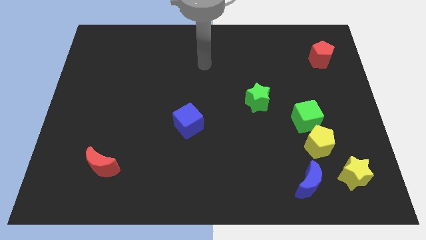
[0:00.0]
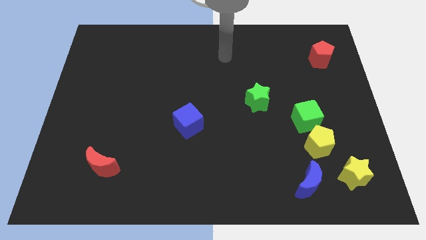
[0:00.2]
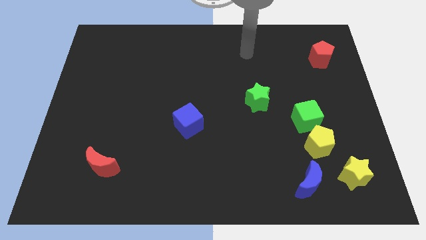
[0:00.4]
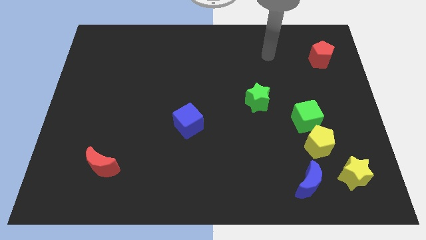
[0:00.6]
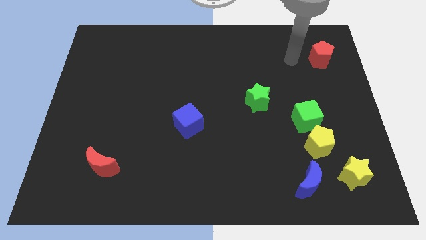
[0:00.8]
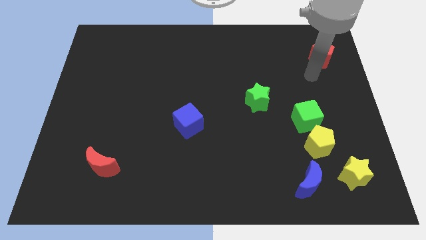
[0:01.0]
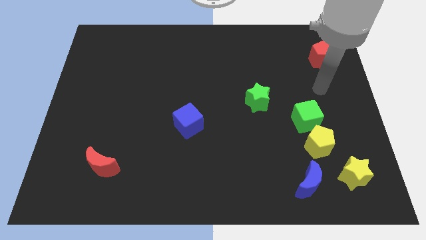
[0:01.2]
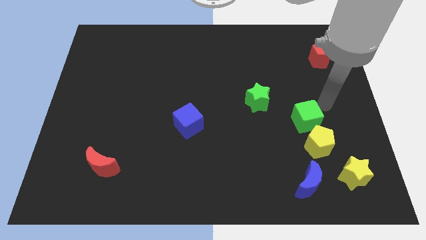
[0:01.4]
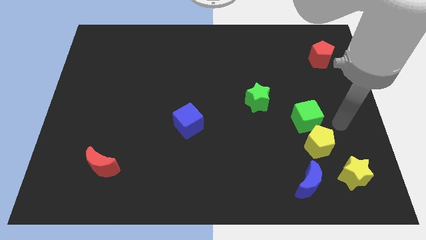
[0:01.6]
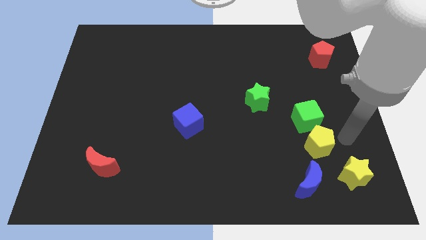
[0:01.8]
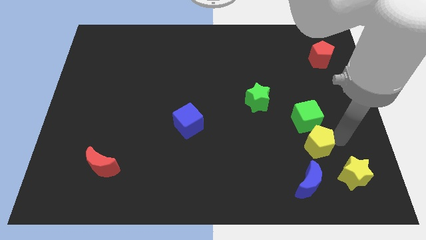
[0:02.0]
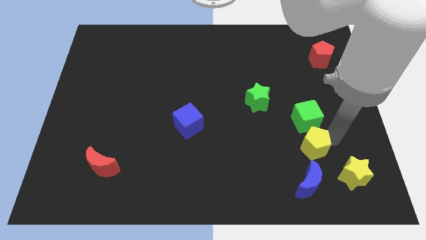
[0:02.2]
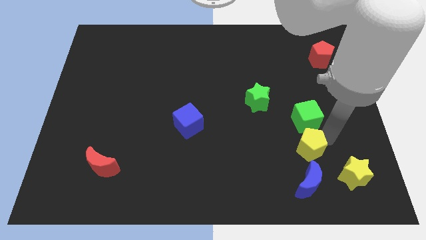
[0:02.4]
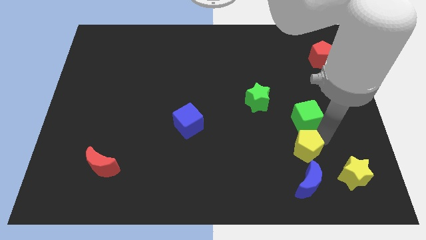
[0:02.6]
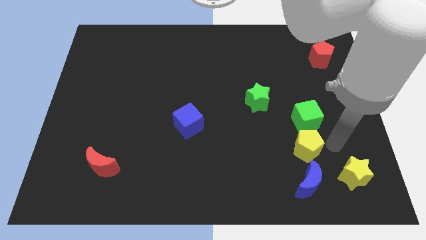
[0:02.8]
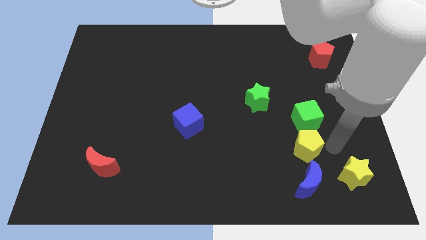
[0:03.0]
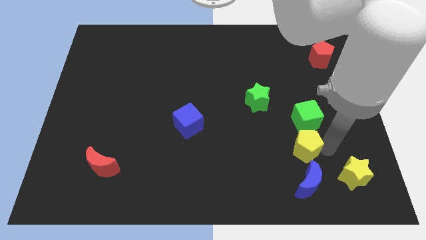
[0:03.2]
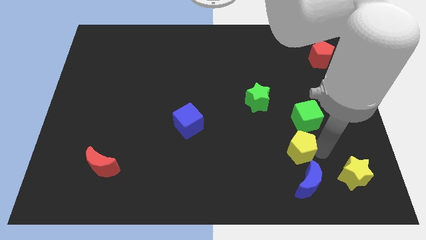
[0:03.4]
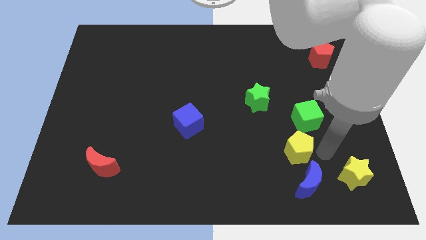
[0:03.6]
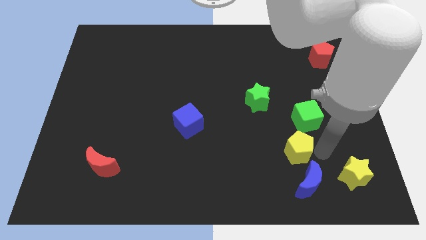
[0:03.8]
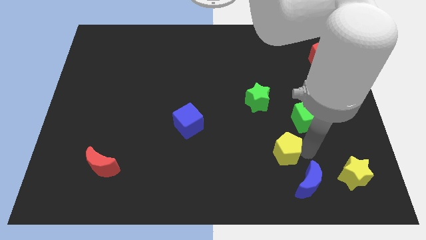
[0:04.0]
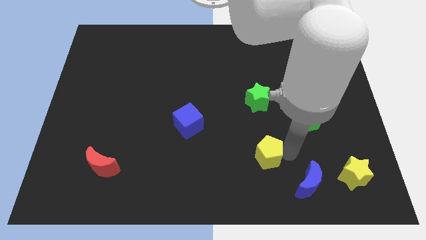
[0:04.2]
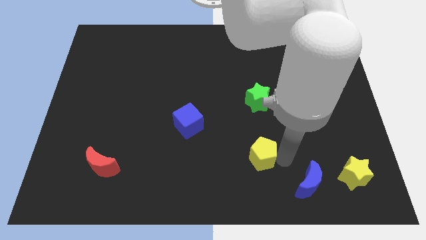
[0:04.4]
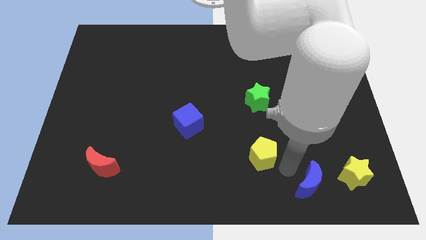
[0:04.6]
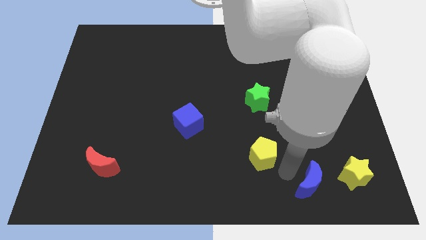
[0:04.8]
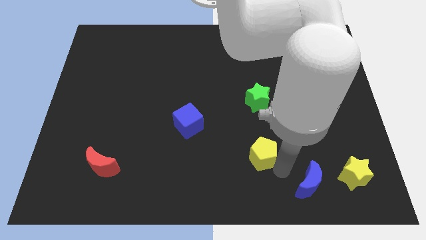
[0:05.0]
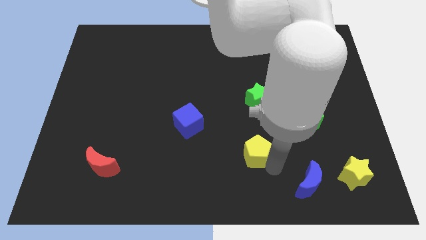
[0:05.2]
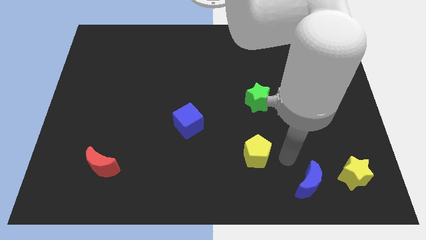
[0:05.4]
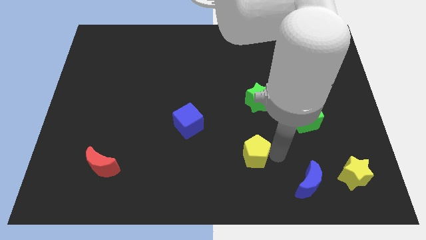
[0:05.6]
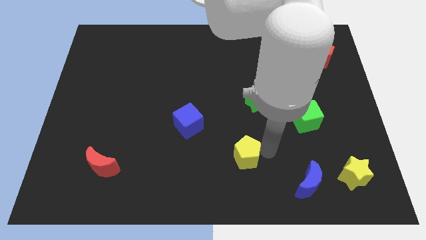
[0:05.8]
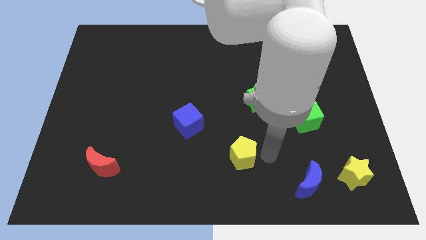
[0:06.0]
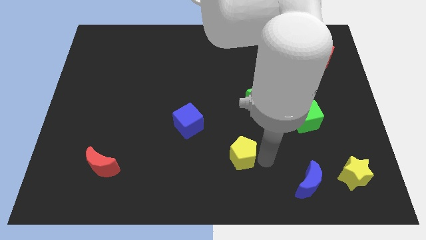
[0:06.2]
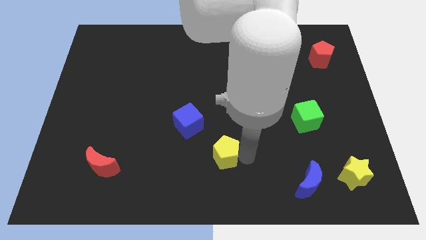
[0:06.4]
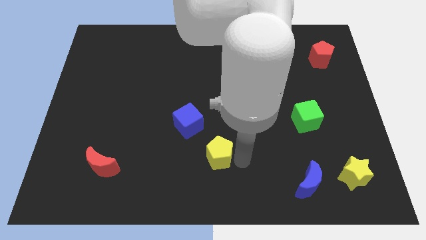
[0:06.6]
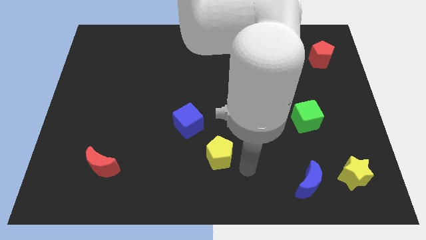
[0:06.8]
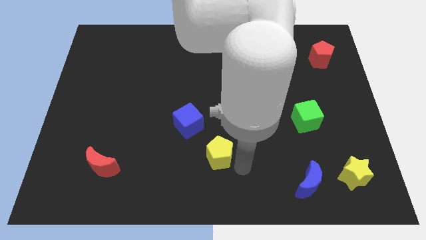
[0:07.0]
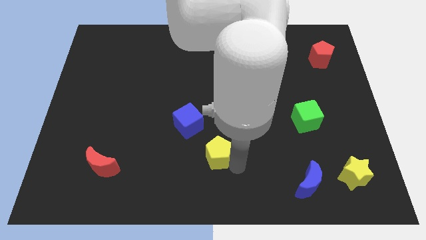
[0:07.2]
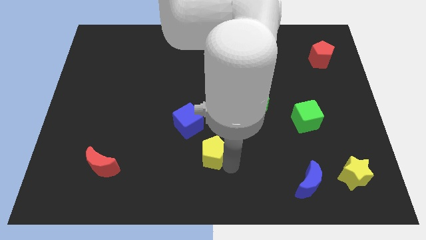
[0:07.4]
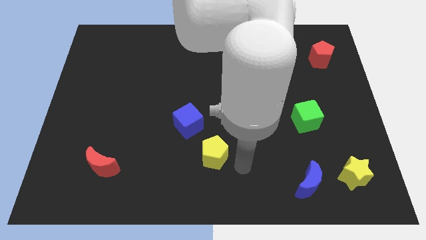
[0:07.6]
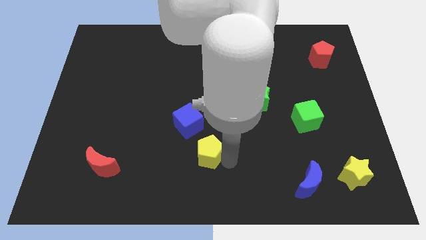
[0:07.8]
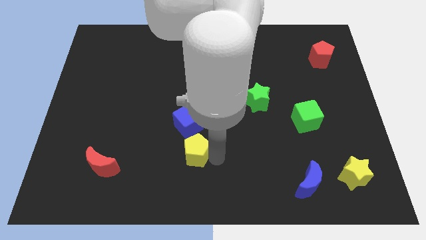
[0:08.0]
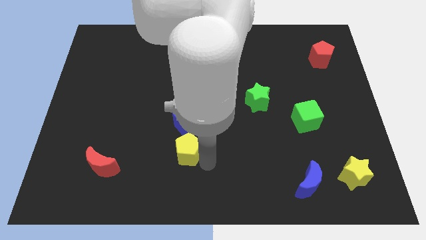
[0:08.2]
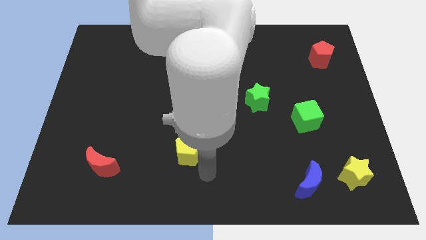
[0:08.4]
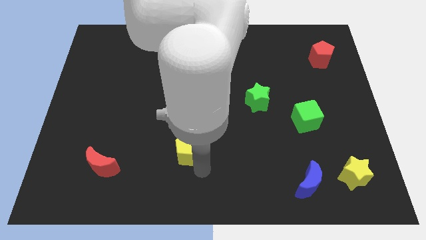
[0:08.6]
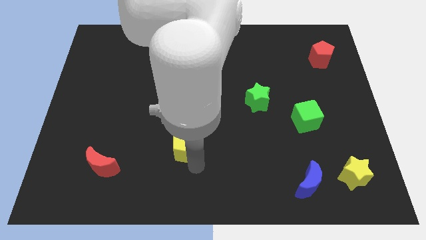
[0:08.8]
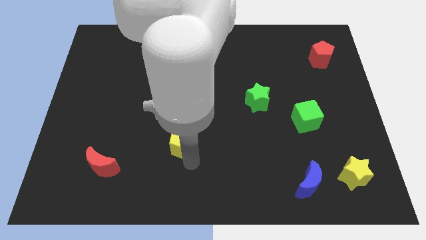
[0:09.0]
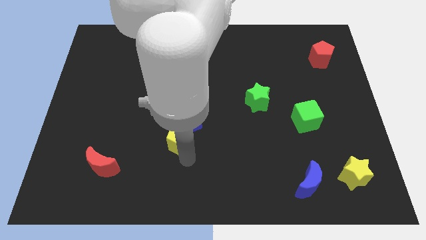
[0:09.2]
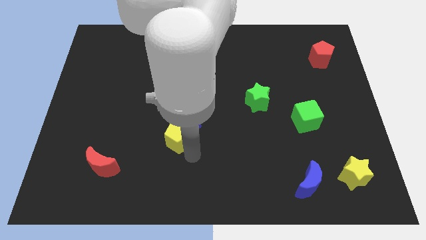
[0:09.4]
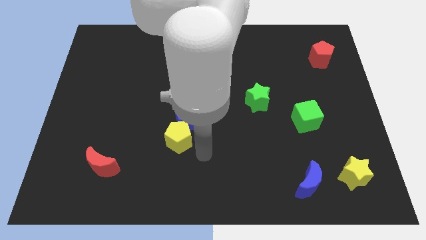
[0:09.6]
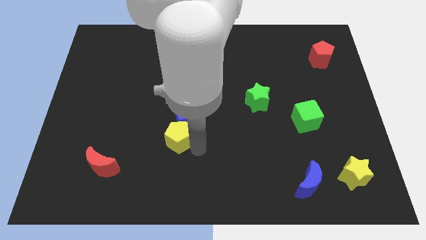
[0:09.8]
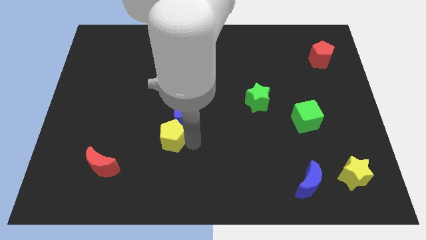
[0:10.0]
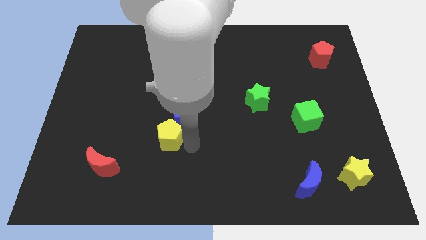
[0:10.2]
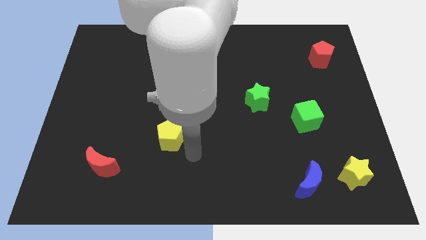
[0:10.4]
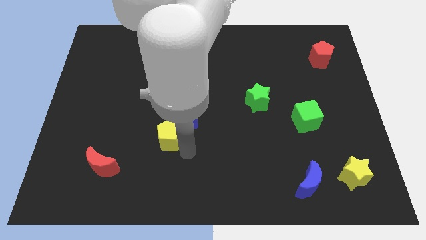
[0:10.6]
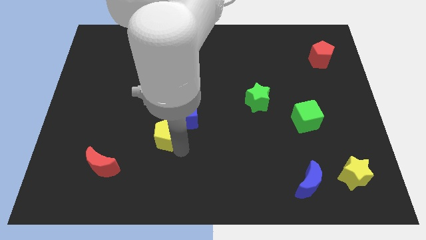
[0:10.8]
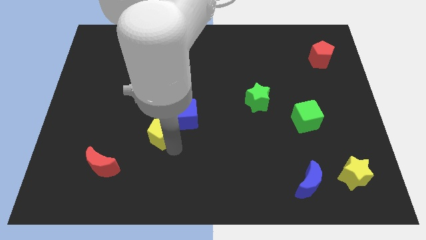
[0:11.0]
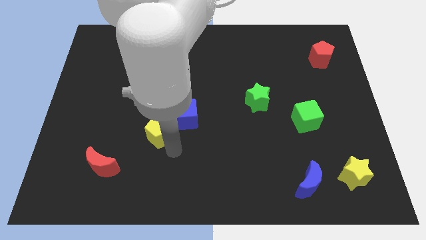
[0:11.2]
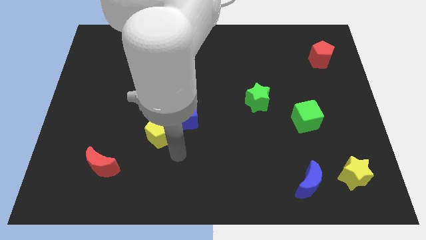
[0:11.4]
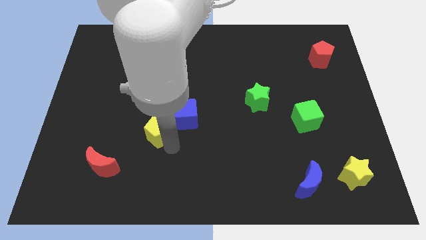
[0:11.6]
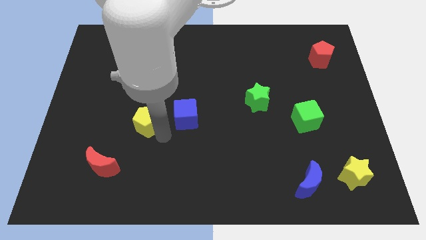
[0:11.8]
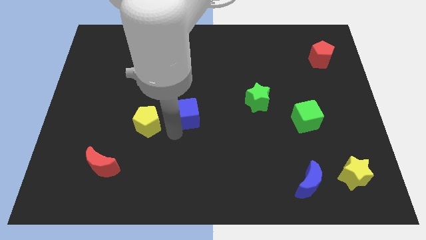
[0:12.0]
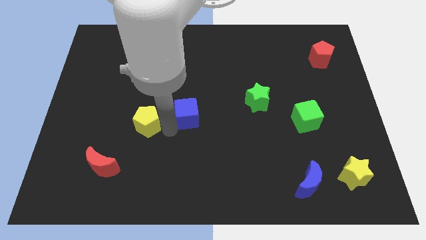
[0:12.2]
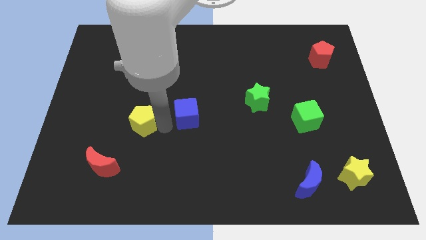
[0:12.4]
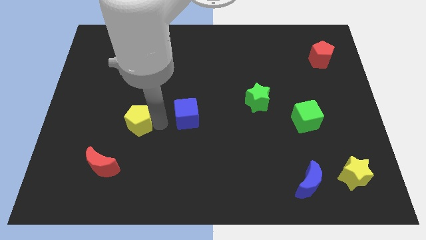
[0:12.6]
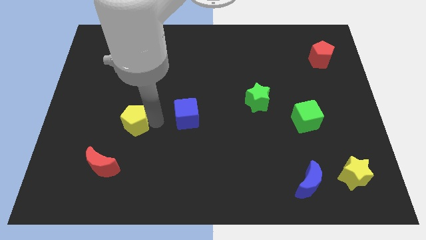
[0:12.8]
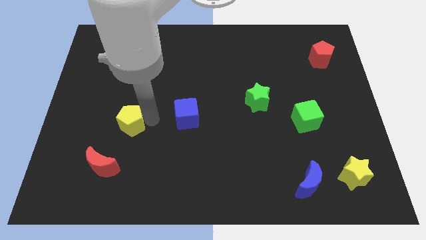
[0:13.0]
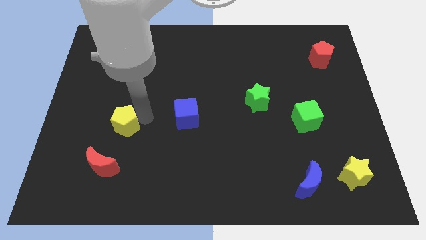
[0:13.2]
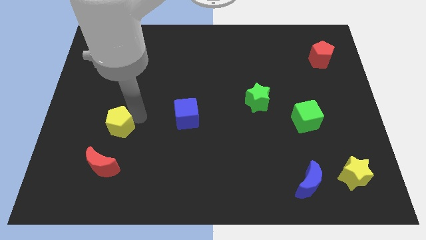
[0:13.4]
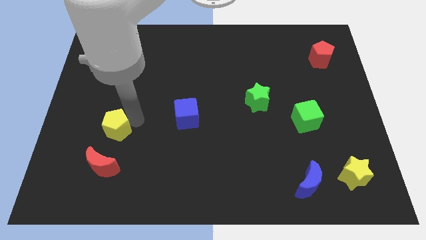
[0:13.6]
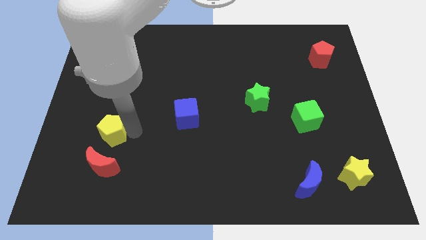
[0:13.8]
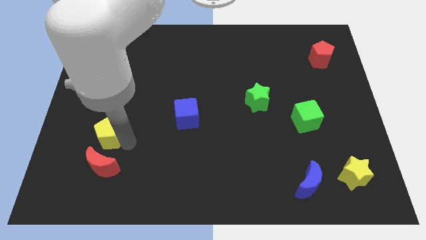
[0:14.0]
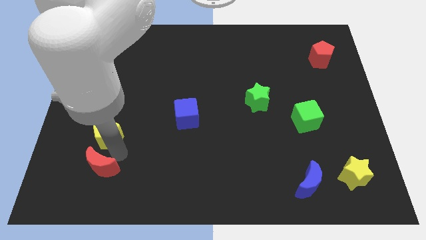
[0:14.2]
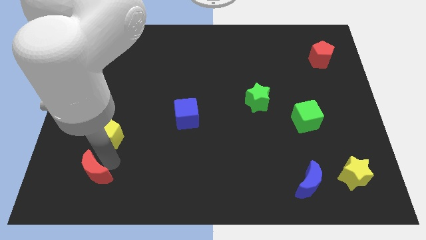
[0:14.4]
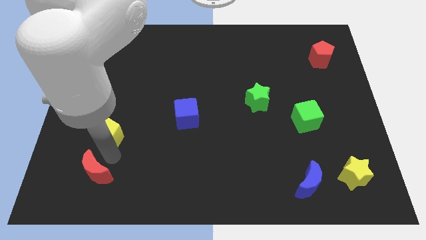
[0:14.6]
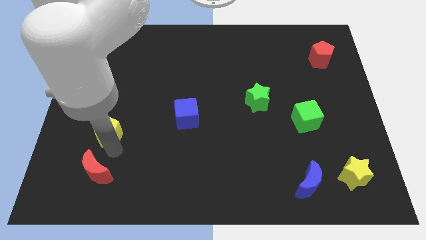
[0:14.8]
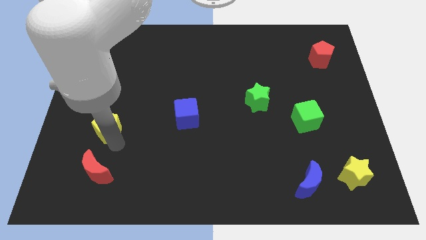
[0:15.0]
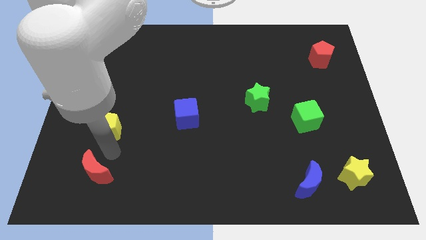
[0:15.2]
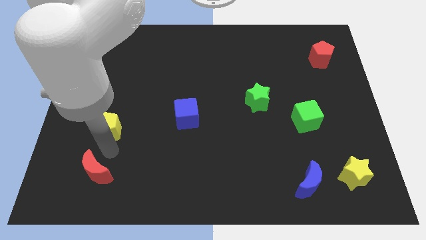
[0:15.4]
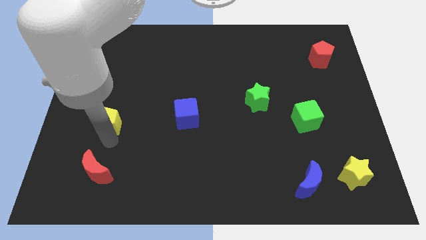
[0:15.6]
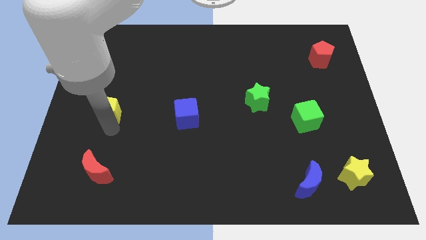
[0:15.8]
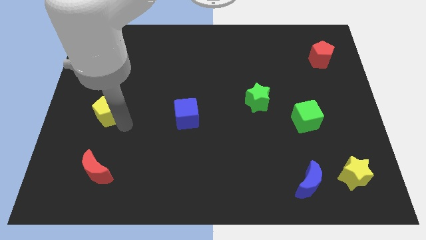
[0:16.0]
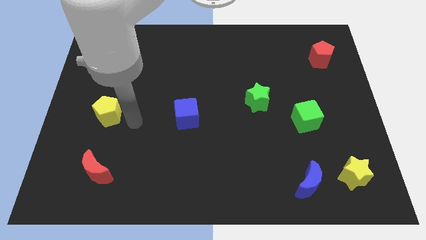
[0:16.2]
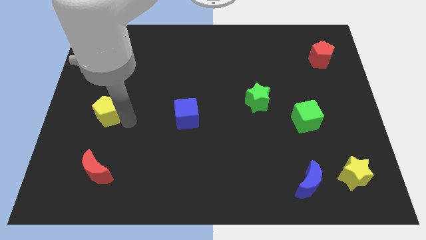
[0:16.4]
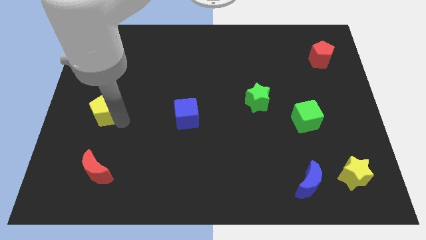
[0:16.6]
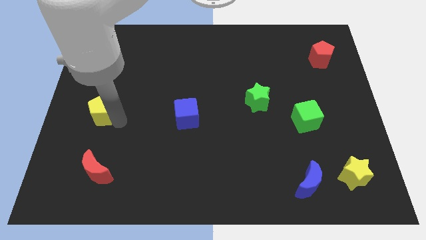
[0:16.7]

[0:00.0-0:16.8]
slide the yellow pentagon to the left side of the board
